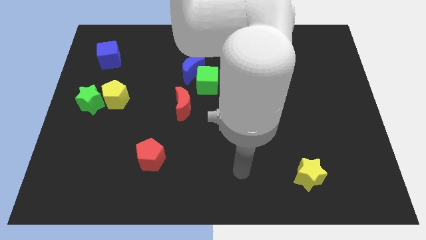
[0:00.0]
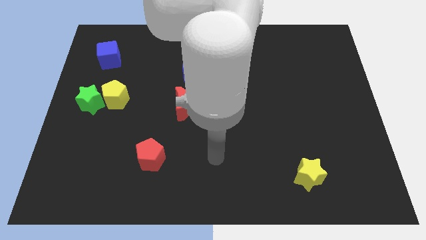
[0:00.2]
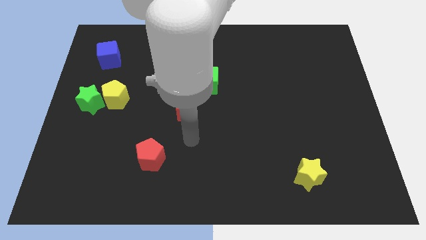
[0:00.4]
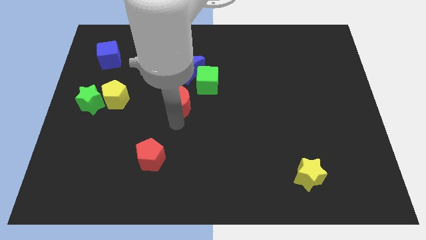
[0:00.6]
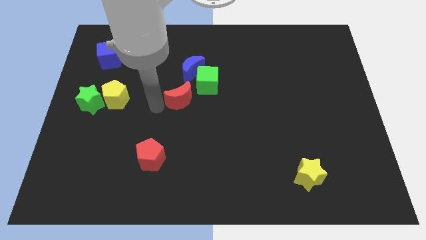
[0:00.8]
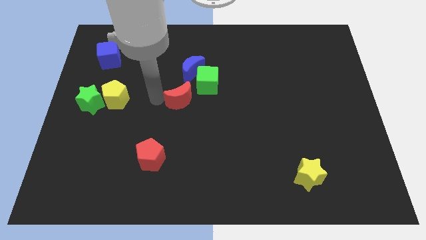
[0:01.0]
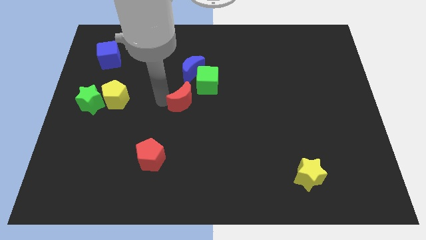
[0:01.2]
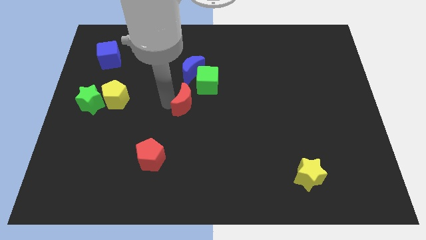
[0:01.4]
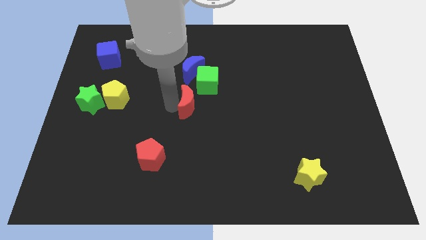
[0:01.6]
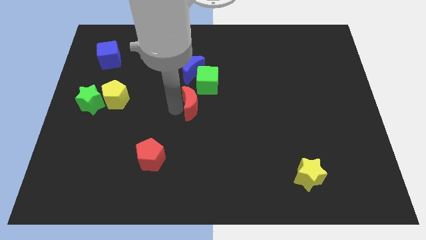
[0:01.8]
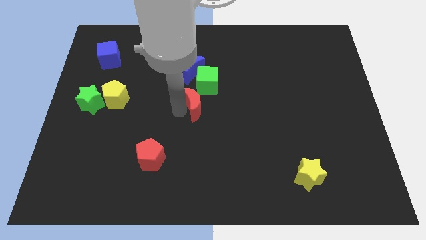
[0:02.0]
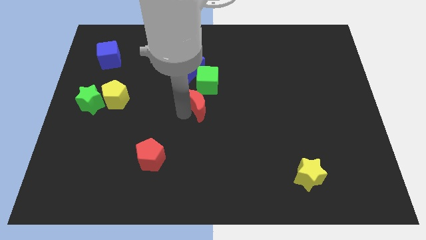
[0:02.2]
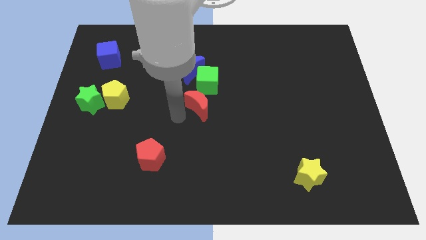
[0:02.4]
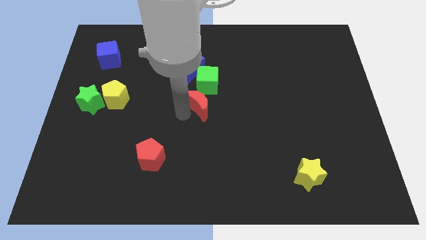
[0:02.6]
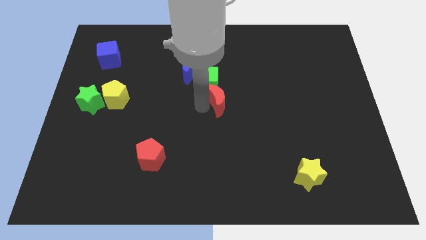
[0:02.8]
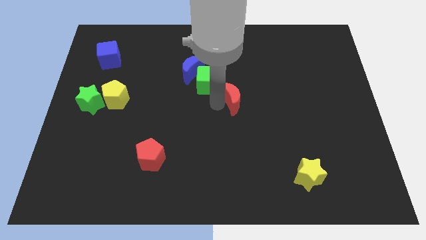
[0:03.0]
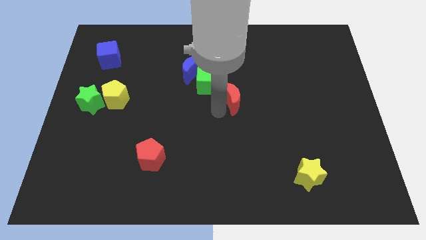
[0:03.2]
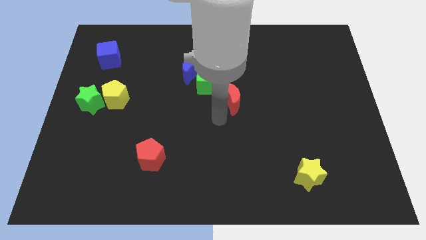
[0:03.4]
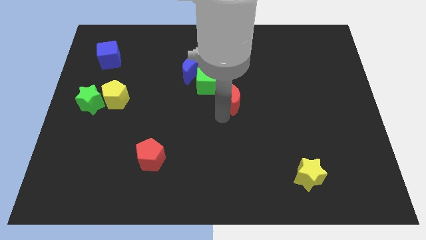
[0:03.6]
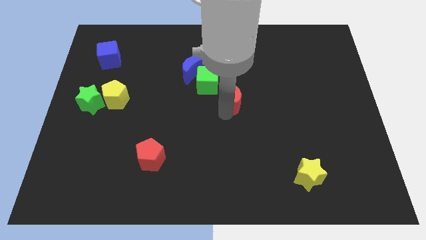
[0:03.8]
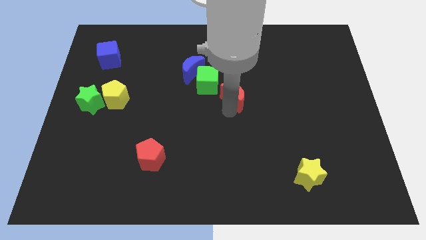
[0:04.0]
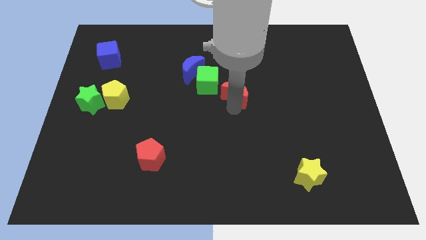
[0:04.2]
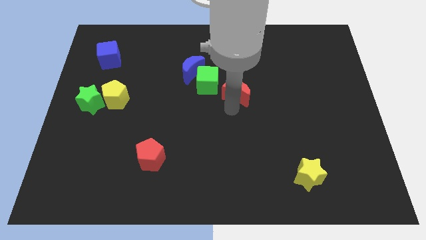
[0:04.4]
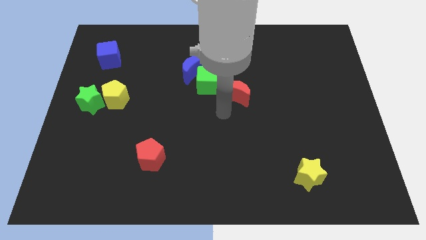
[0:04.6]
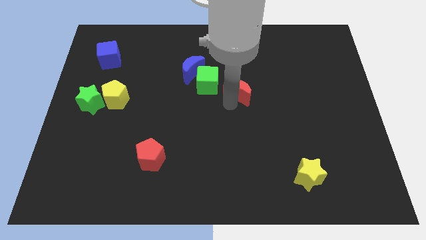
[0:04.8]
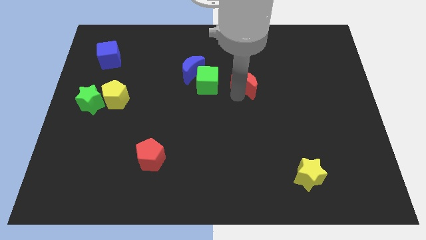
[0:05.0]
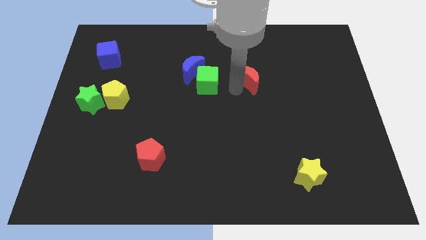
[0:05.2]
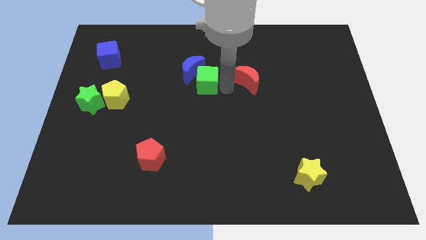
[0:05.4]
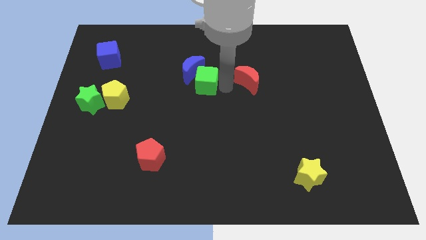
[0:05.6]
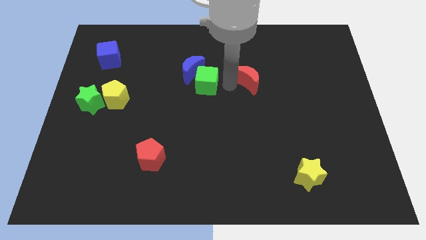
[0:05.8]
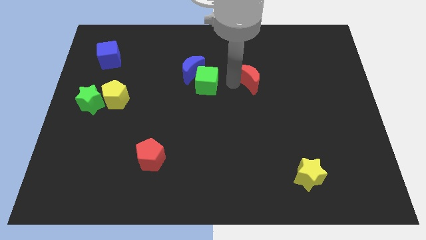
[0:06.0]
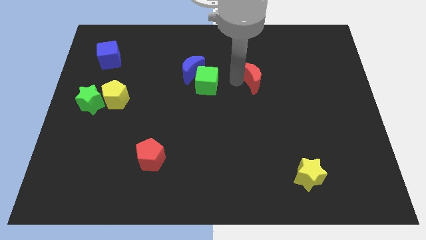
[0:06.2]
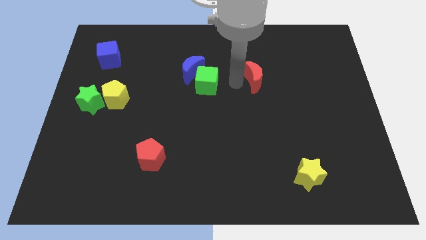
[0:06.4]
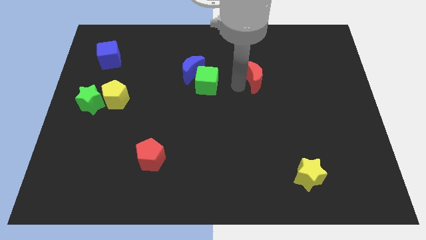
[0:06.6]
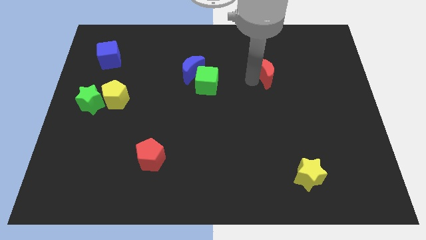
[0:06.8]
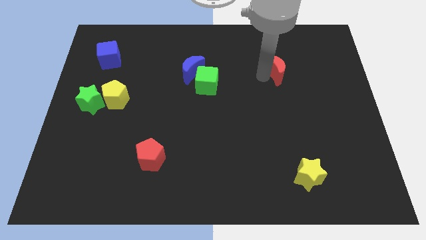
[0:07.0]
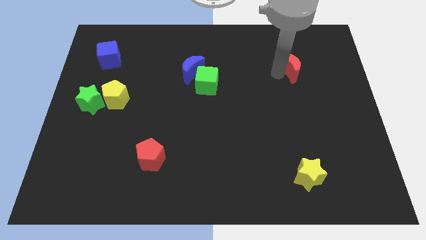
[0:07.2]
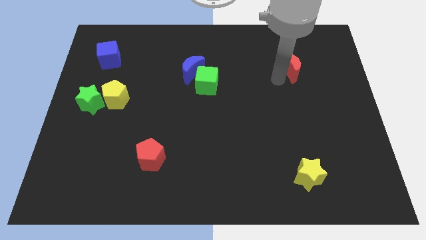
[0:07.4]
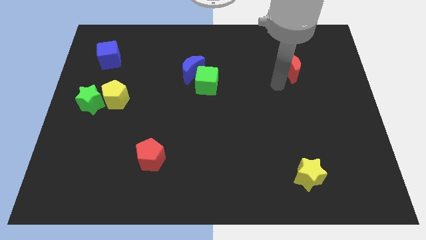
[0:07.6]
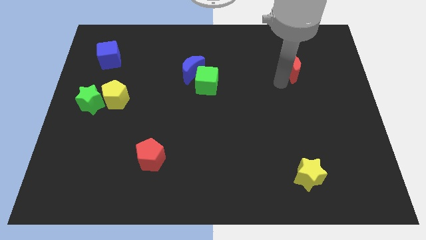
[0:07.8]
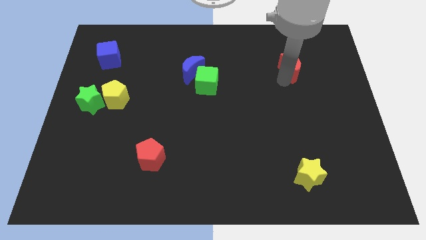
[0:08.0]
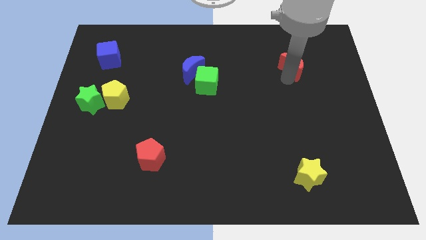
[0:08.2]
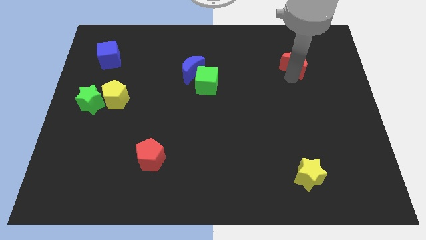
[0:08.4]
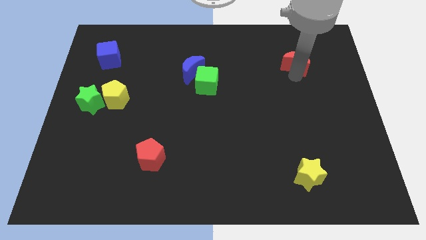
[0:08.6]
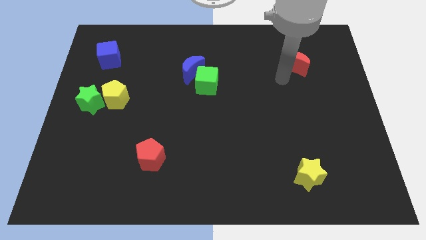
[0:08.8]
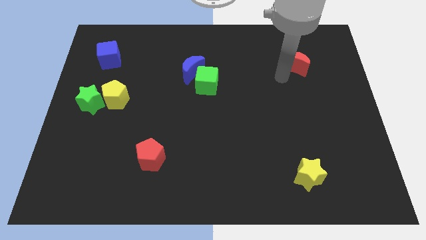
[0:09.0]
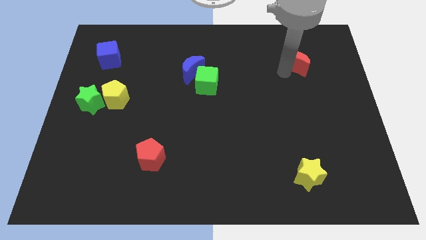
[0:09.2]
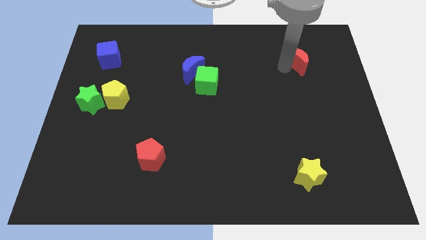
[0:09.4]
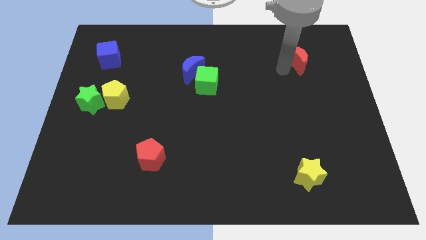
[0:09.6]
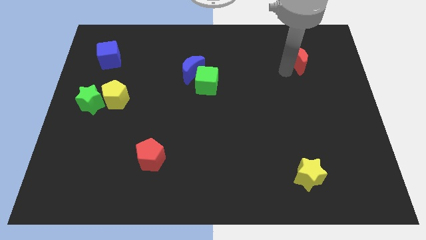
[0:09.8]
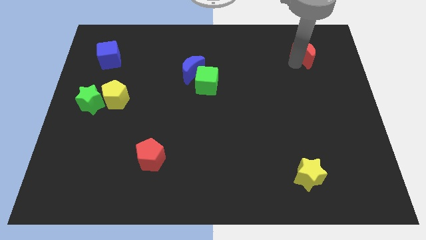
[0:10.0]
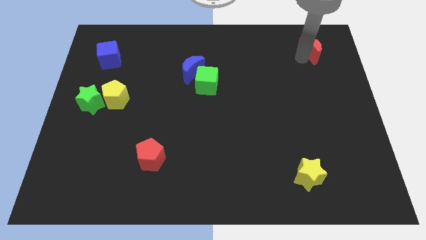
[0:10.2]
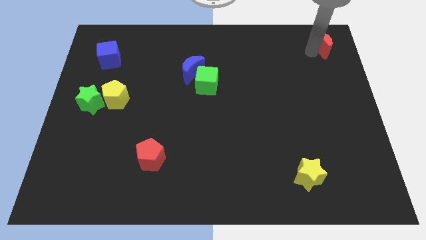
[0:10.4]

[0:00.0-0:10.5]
move the red moon to the top right corner
